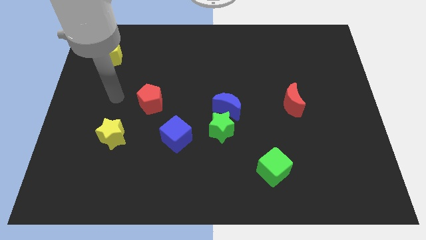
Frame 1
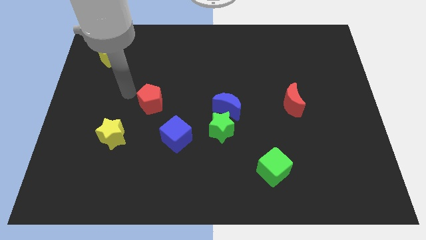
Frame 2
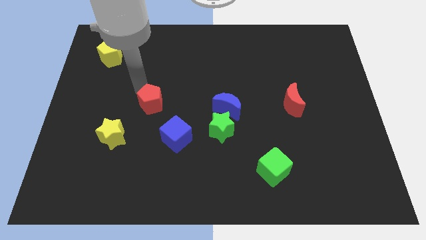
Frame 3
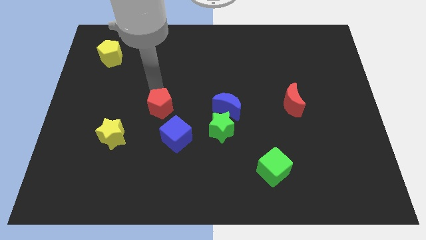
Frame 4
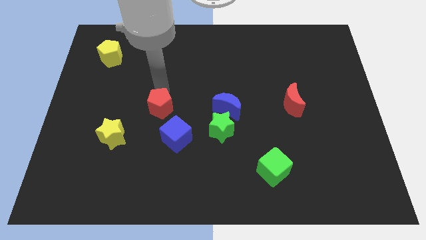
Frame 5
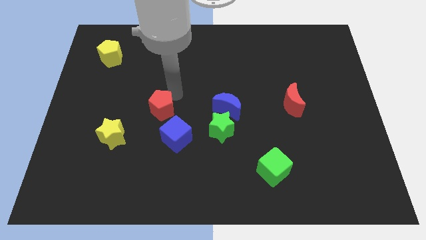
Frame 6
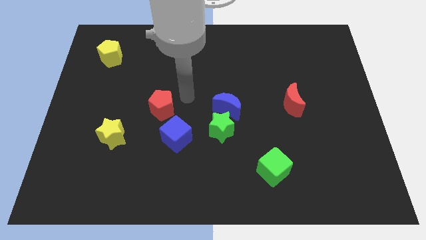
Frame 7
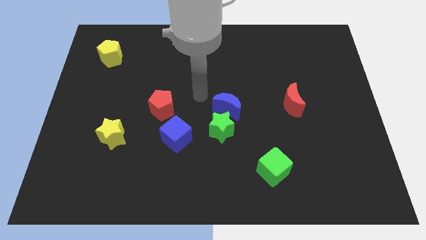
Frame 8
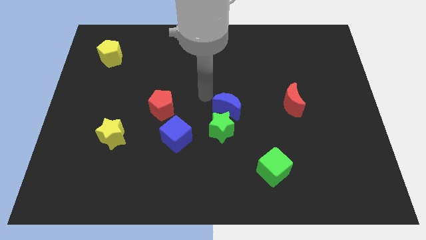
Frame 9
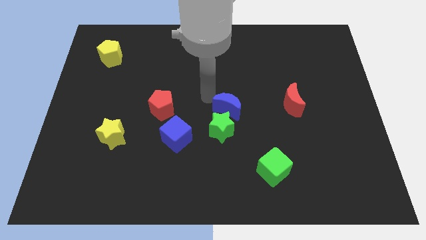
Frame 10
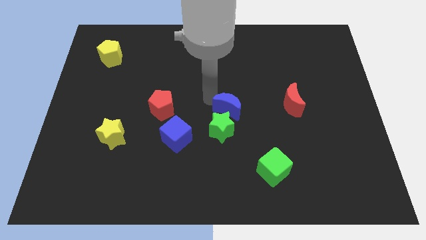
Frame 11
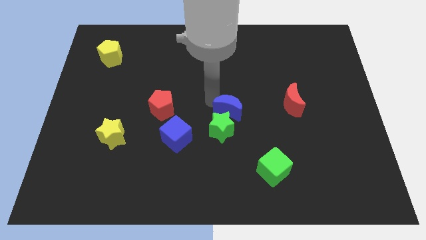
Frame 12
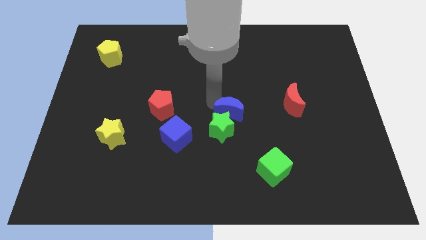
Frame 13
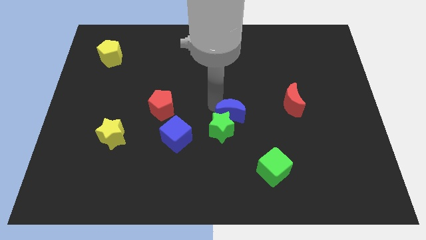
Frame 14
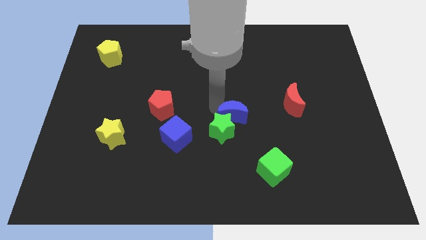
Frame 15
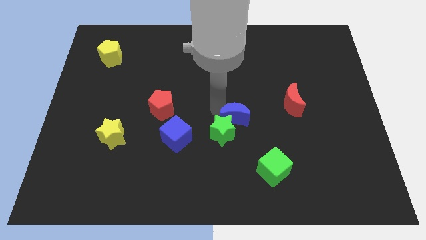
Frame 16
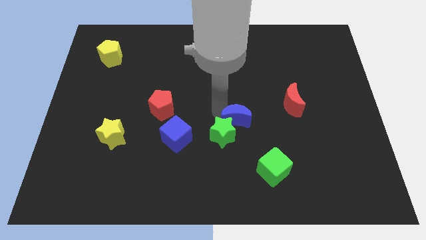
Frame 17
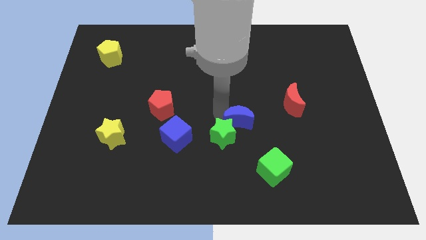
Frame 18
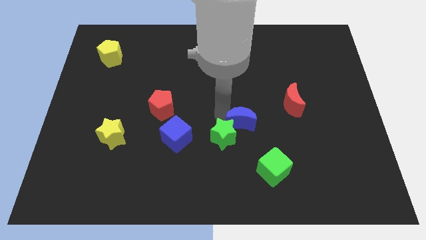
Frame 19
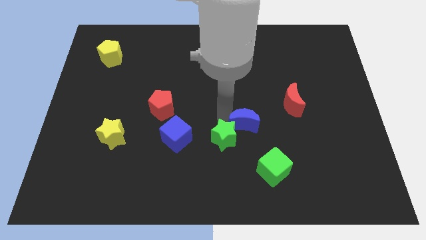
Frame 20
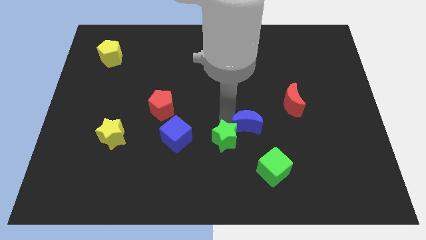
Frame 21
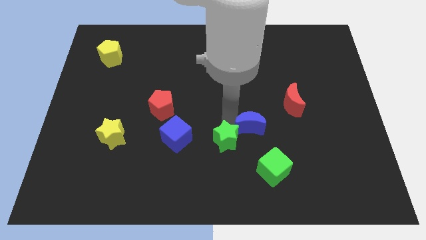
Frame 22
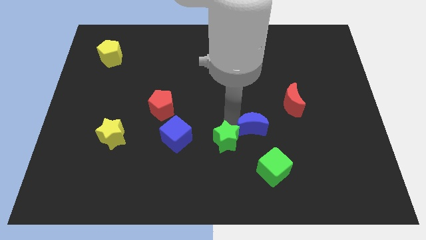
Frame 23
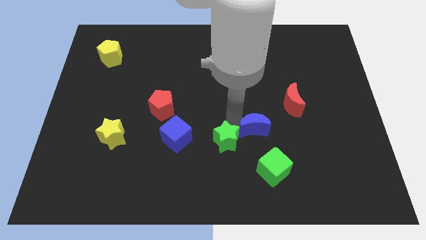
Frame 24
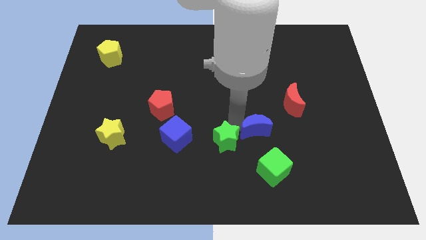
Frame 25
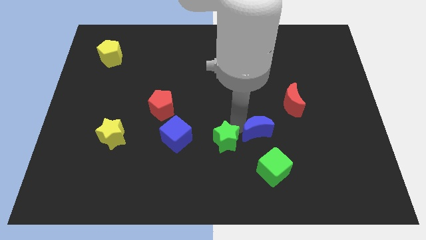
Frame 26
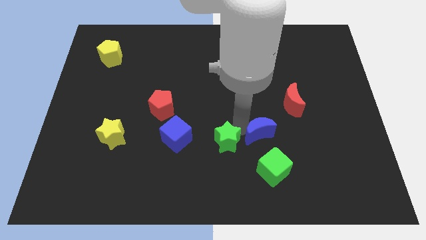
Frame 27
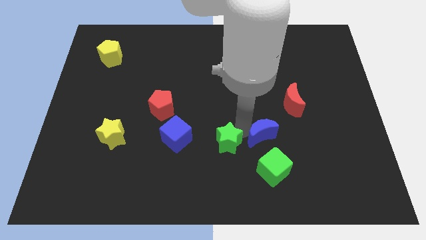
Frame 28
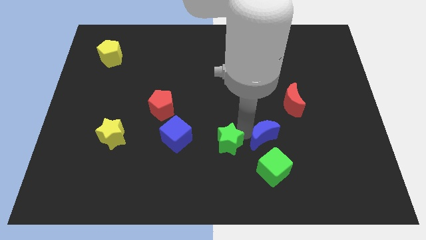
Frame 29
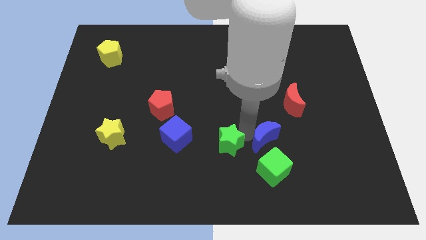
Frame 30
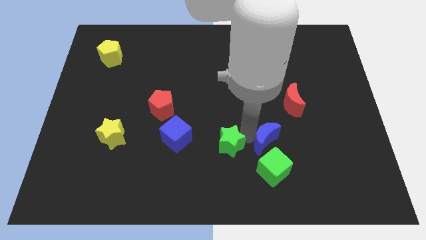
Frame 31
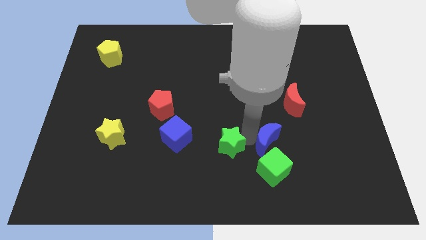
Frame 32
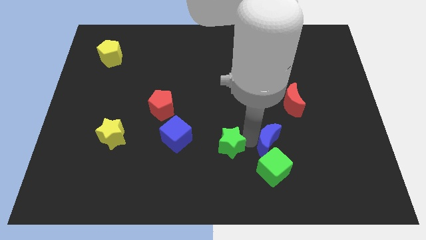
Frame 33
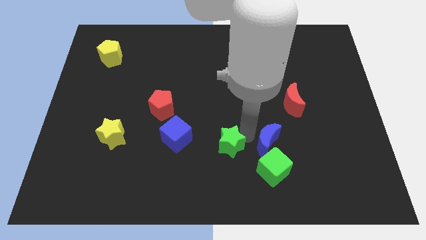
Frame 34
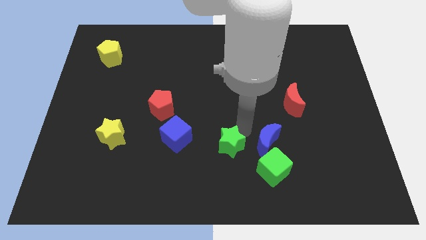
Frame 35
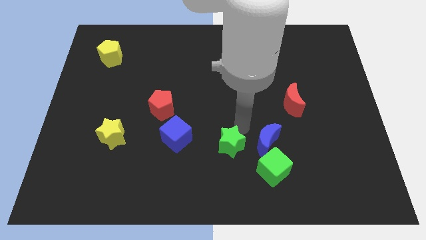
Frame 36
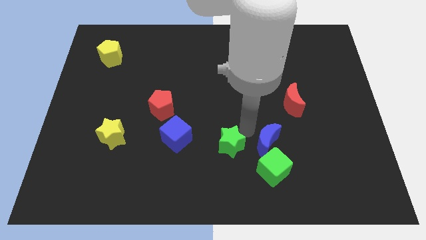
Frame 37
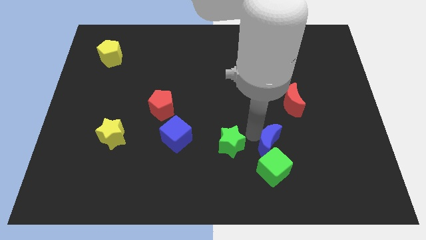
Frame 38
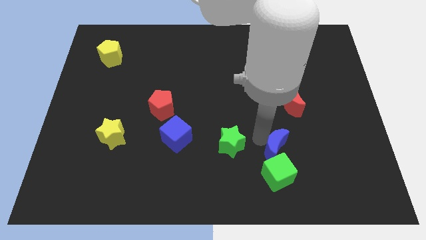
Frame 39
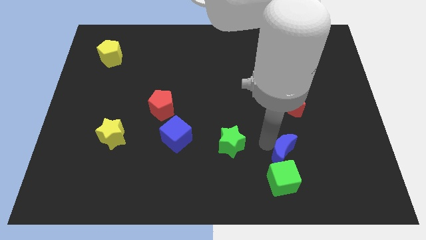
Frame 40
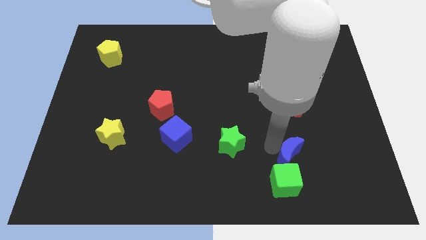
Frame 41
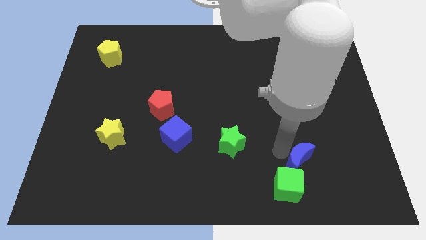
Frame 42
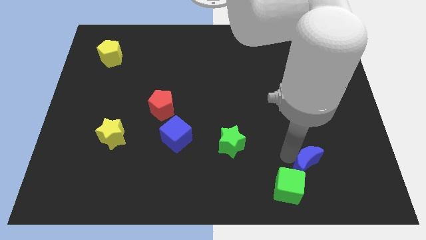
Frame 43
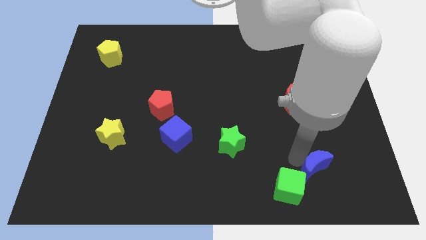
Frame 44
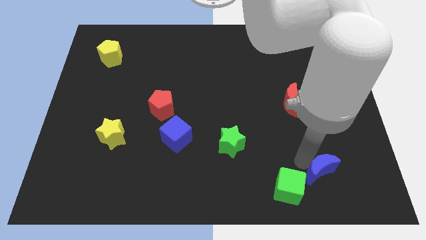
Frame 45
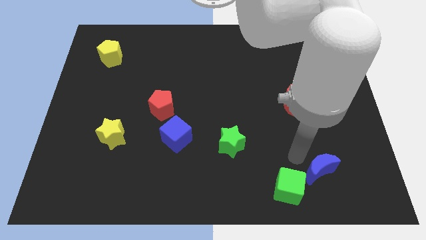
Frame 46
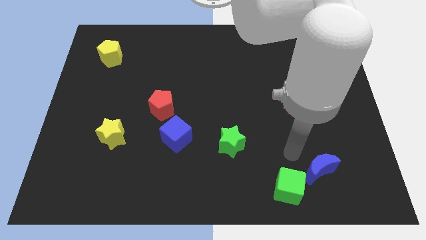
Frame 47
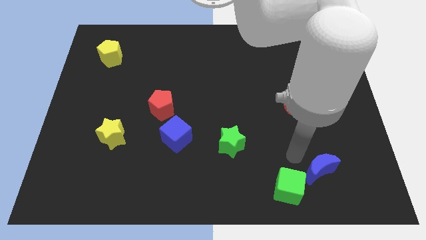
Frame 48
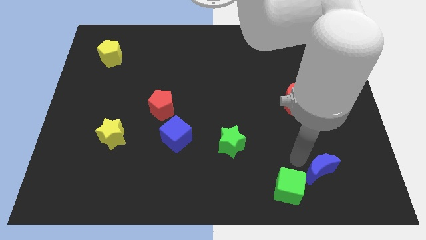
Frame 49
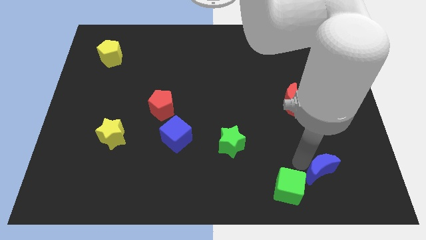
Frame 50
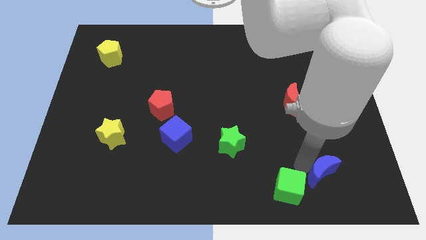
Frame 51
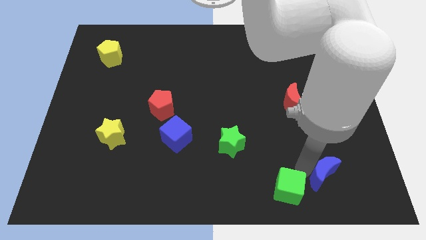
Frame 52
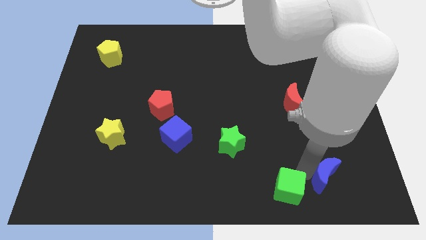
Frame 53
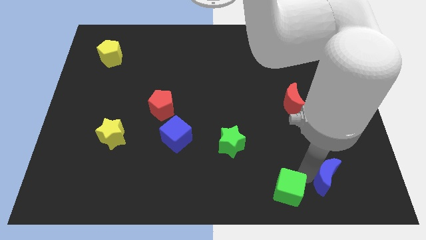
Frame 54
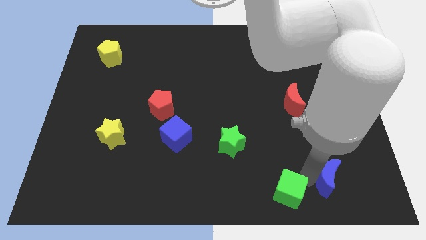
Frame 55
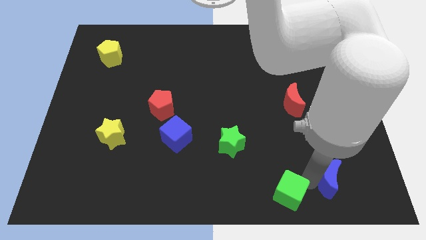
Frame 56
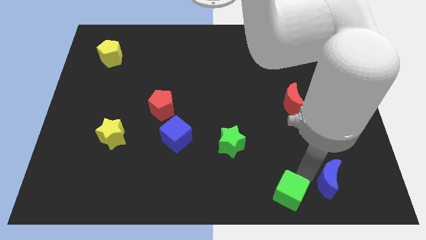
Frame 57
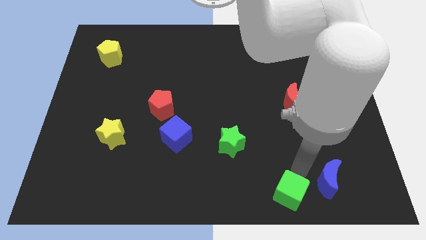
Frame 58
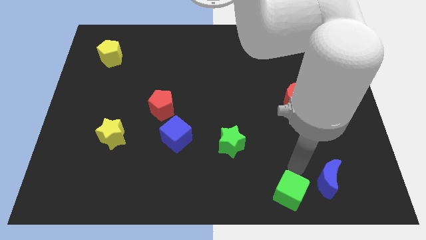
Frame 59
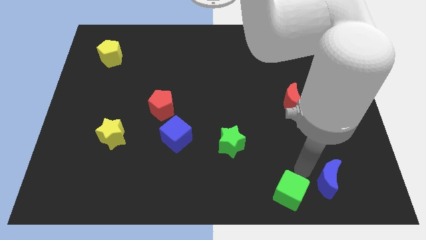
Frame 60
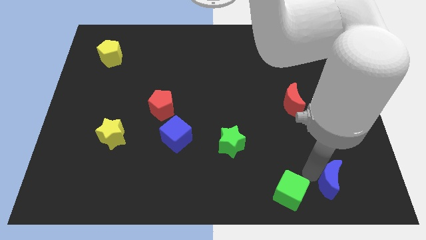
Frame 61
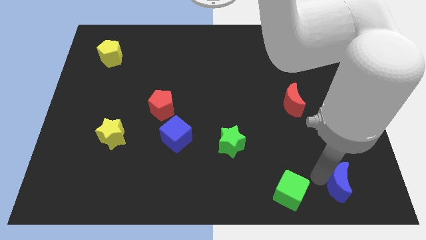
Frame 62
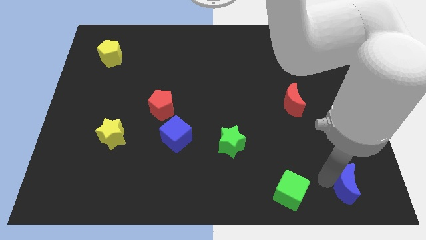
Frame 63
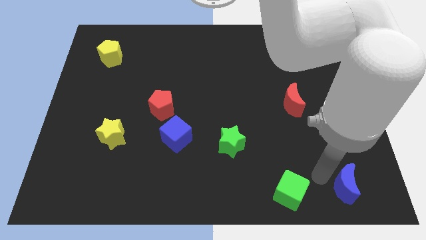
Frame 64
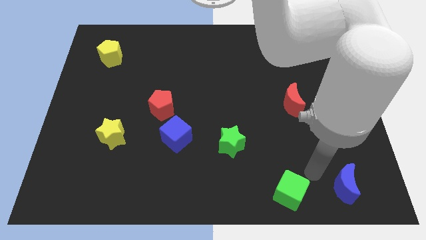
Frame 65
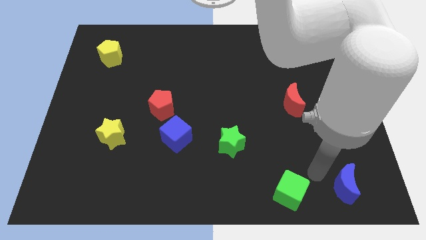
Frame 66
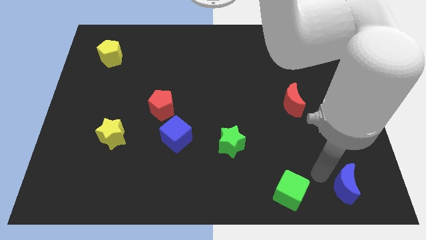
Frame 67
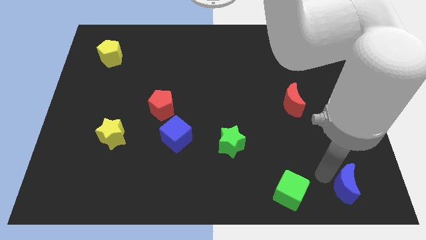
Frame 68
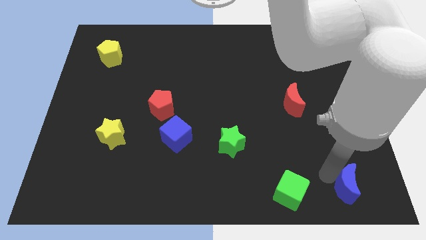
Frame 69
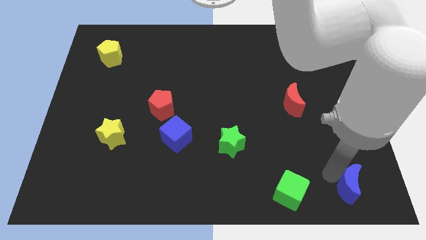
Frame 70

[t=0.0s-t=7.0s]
slide the blue moon to the bottom right

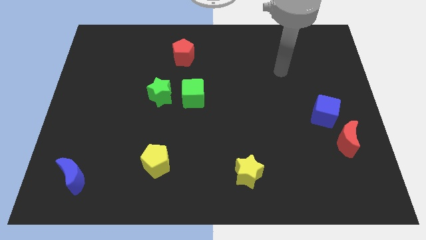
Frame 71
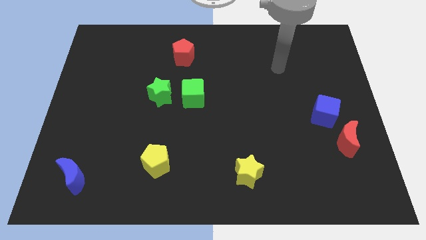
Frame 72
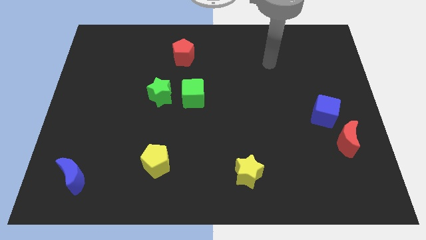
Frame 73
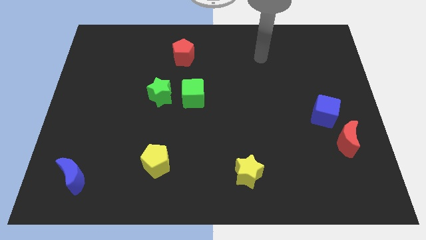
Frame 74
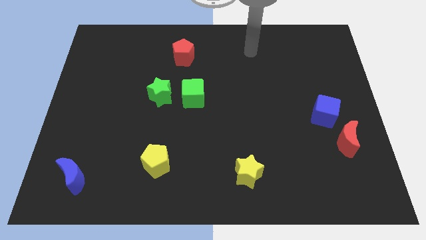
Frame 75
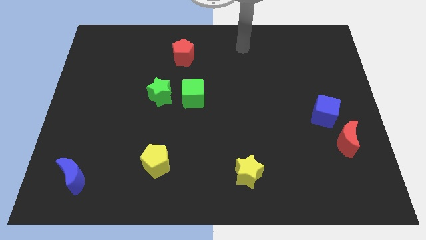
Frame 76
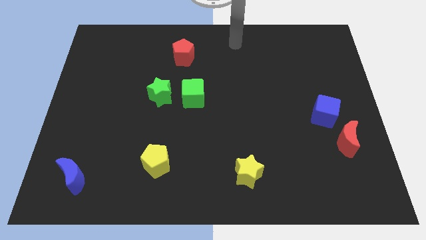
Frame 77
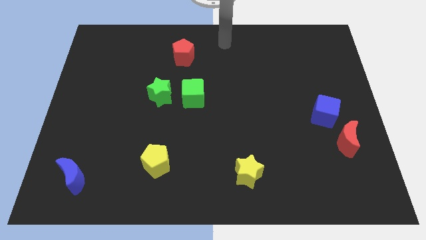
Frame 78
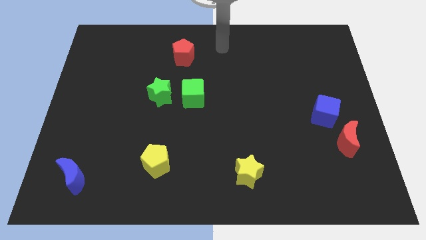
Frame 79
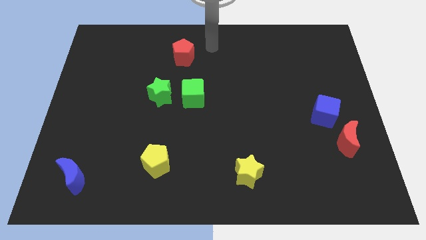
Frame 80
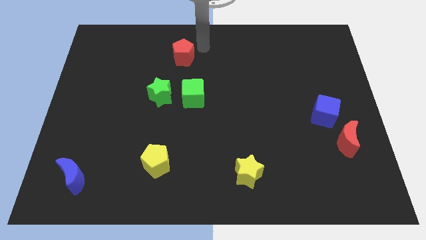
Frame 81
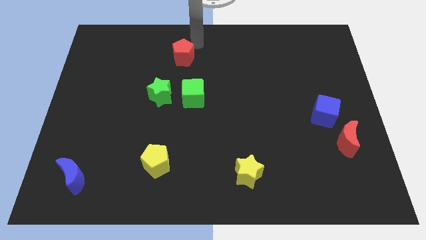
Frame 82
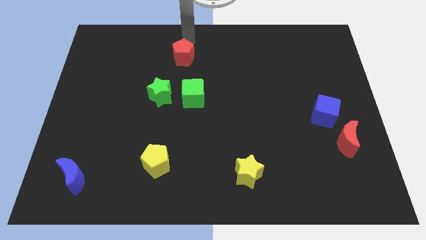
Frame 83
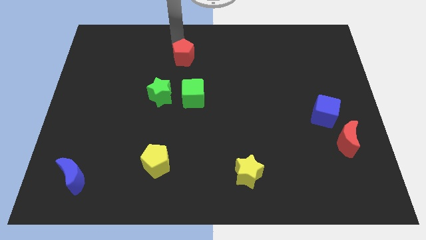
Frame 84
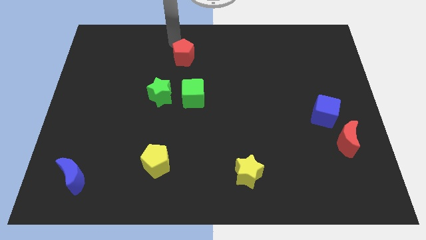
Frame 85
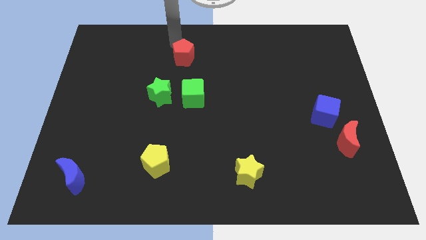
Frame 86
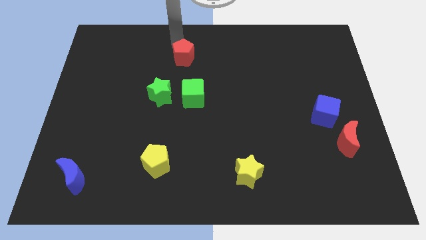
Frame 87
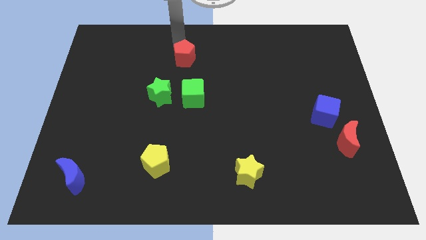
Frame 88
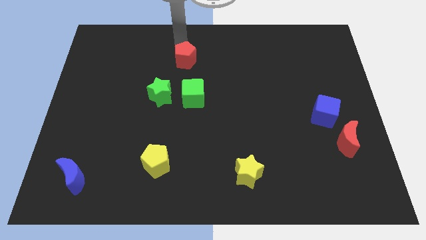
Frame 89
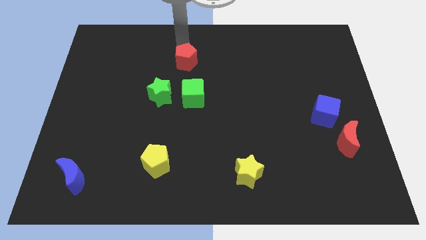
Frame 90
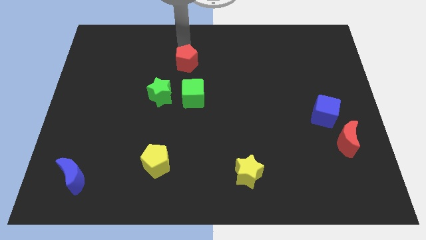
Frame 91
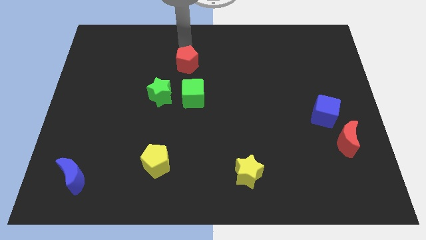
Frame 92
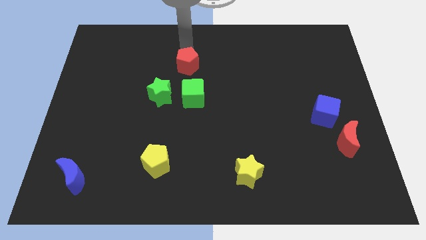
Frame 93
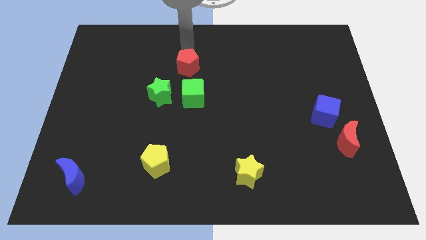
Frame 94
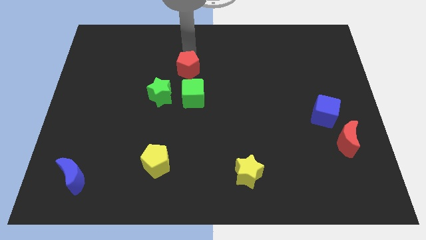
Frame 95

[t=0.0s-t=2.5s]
put the red pentagon to the middle
